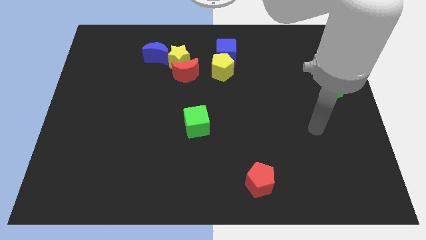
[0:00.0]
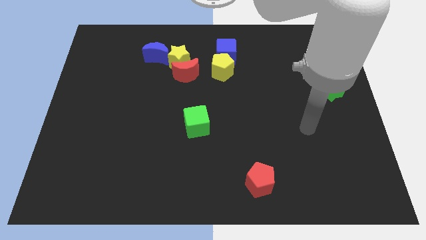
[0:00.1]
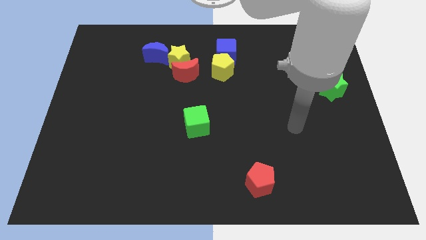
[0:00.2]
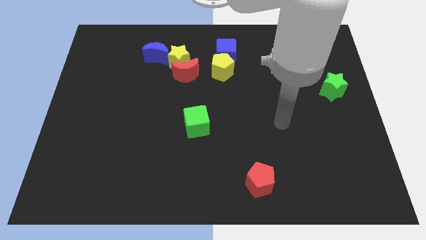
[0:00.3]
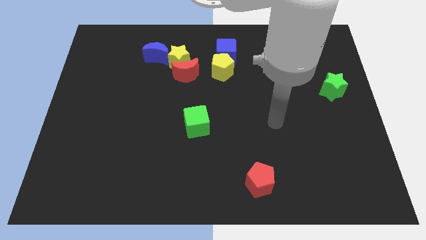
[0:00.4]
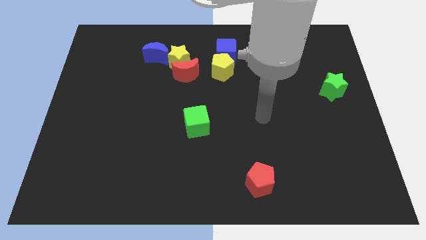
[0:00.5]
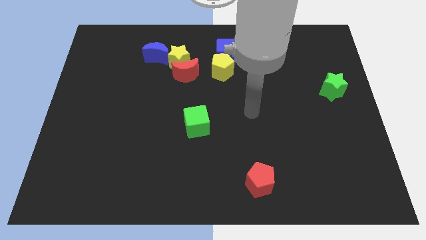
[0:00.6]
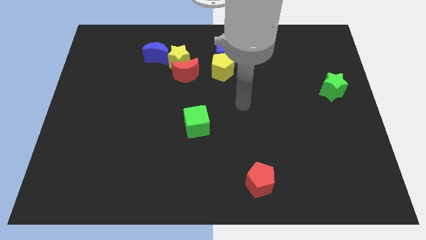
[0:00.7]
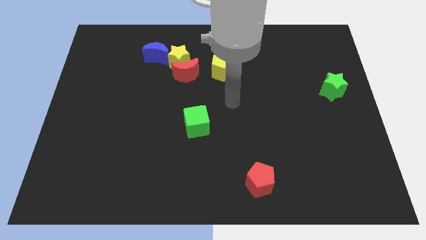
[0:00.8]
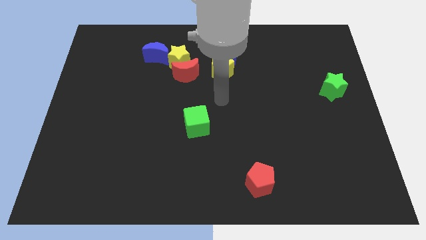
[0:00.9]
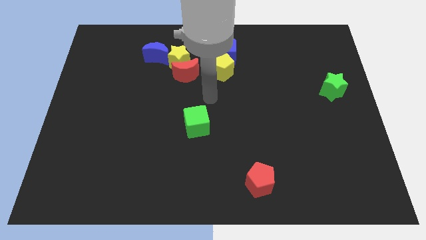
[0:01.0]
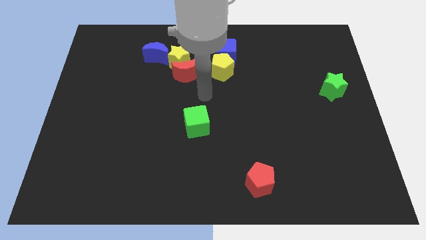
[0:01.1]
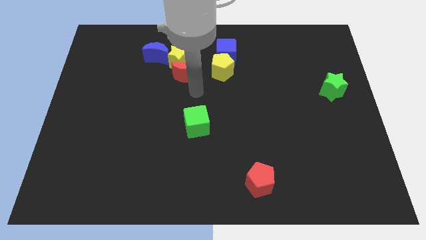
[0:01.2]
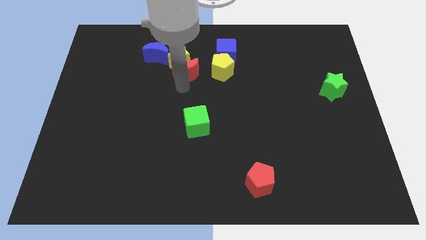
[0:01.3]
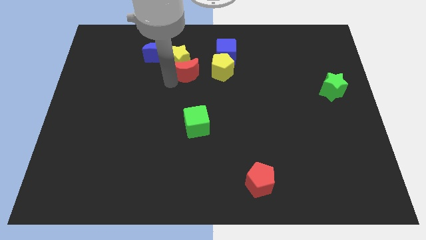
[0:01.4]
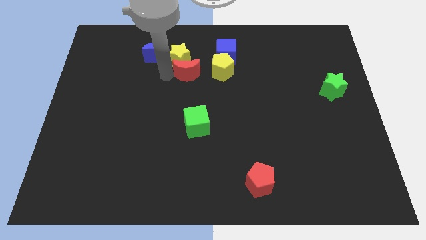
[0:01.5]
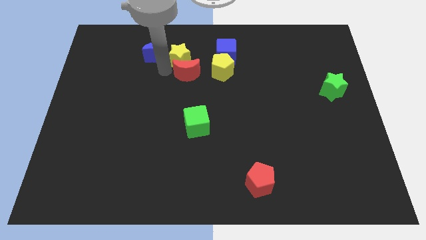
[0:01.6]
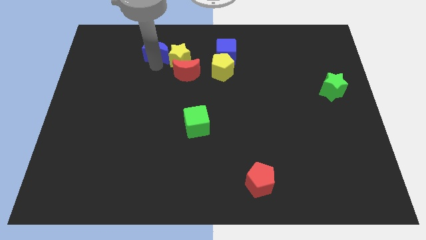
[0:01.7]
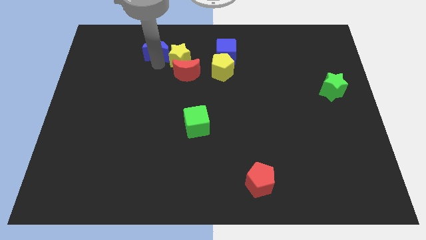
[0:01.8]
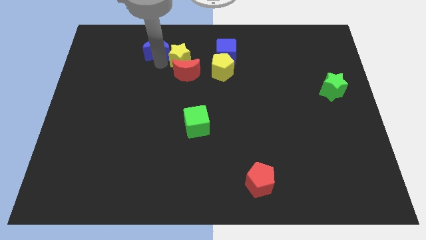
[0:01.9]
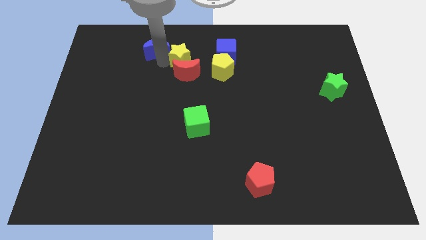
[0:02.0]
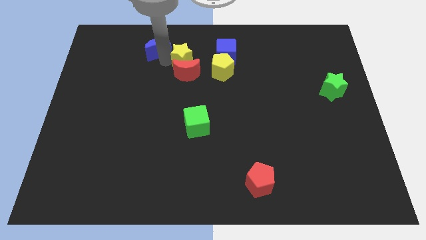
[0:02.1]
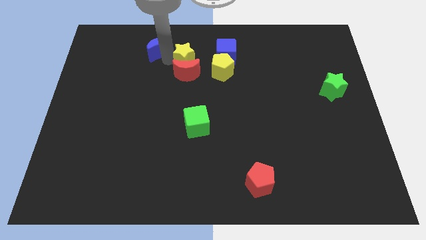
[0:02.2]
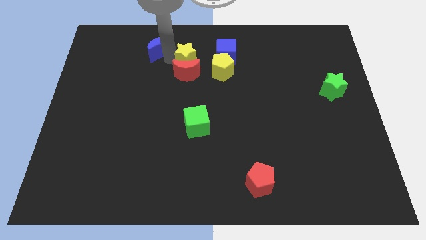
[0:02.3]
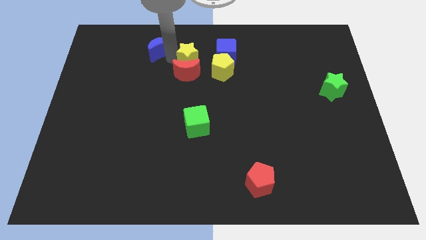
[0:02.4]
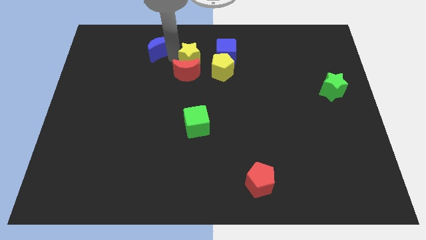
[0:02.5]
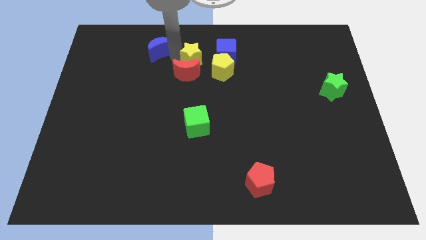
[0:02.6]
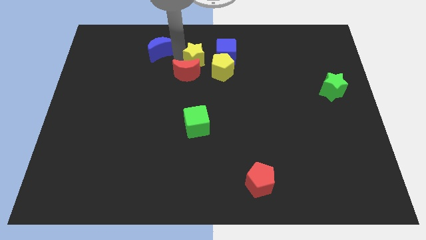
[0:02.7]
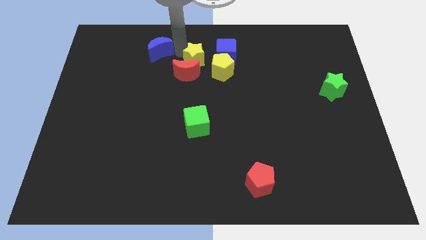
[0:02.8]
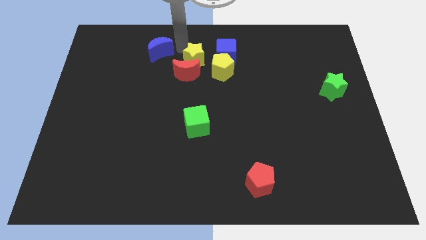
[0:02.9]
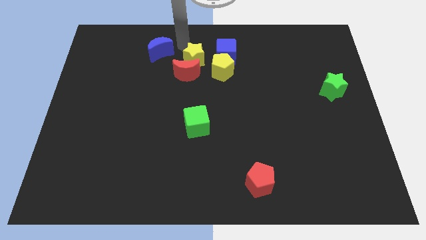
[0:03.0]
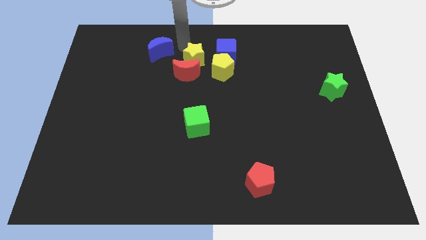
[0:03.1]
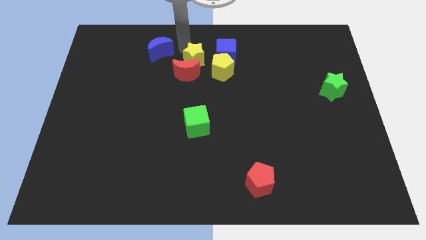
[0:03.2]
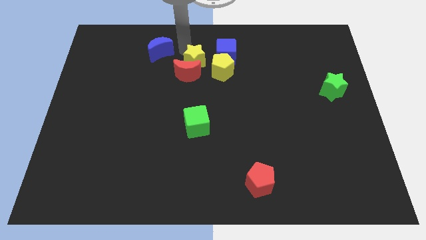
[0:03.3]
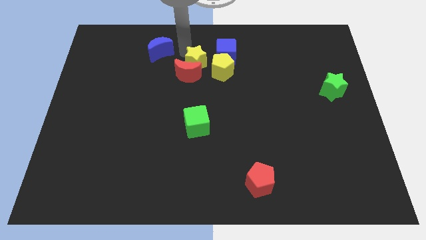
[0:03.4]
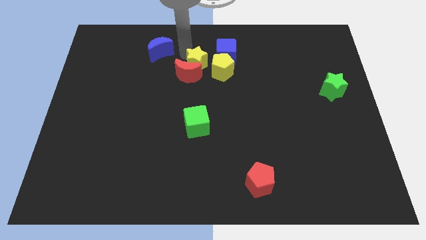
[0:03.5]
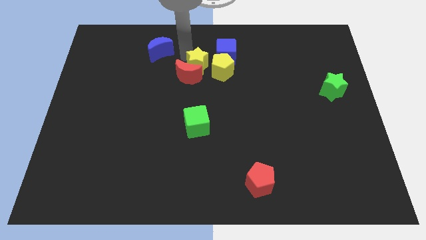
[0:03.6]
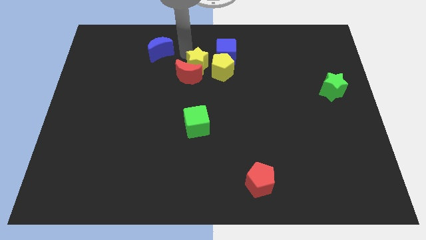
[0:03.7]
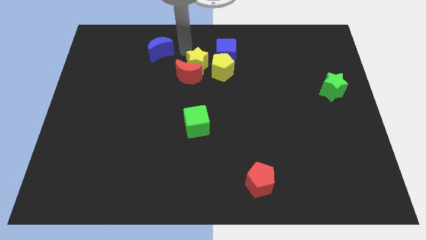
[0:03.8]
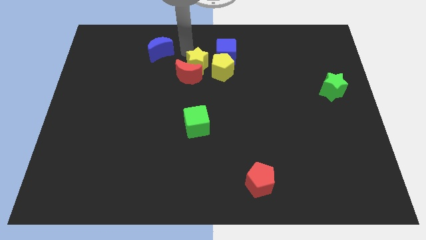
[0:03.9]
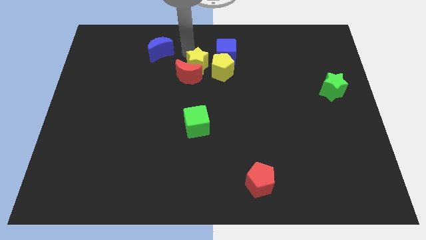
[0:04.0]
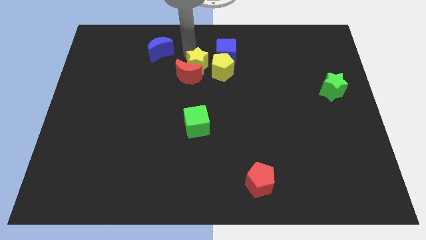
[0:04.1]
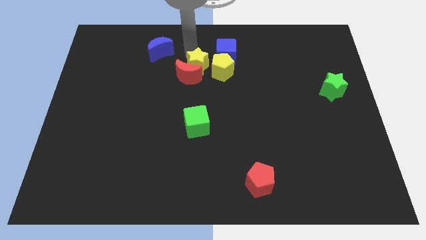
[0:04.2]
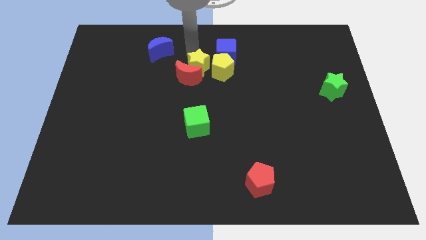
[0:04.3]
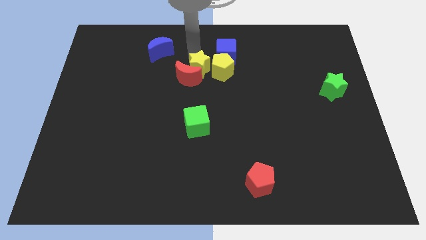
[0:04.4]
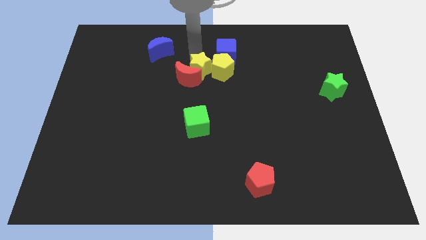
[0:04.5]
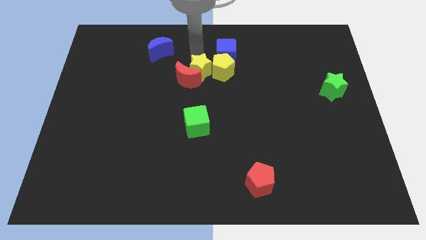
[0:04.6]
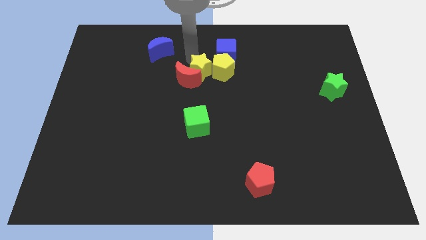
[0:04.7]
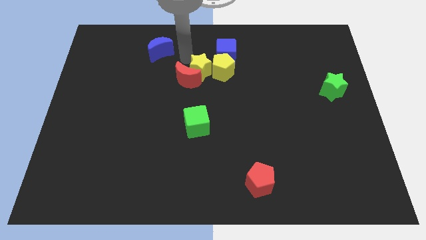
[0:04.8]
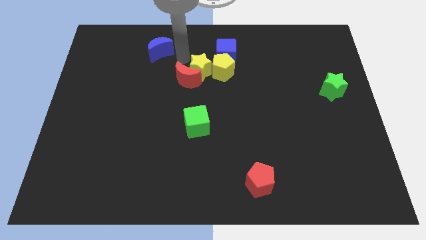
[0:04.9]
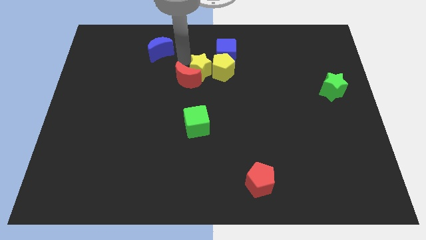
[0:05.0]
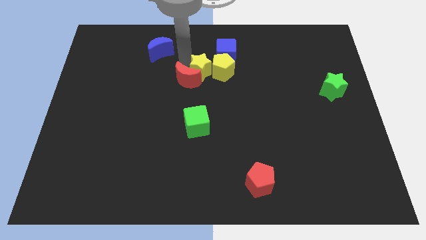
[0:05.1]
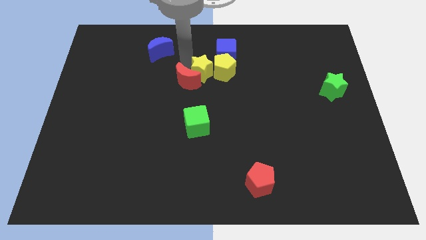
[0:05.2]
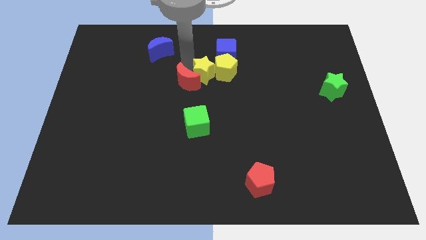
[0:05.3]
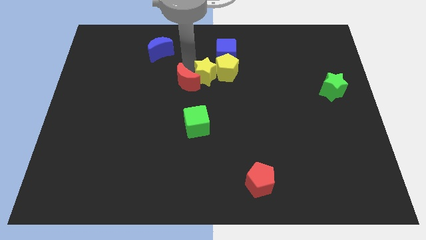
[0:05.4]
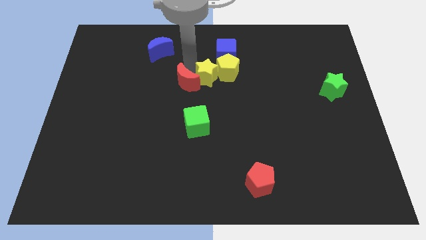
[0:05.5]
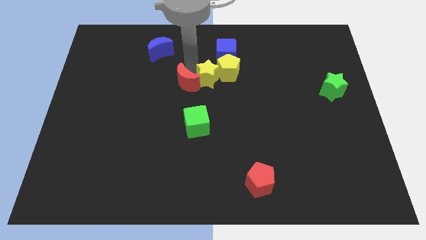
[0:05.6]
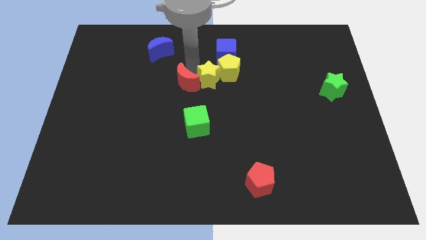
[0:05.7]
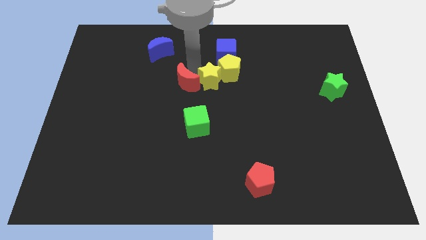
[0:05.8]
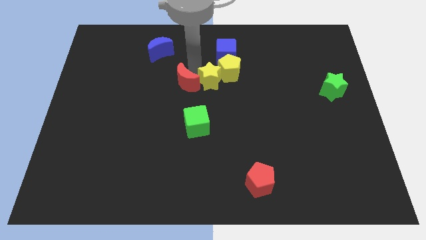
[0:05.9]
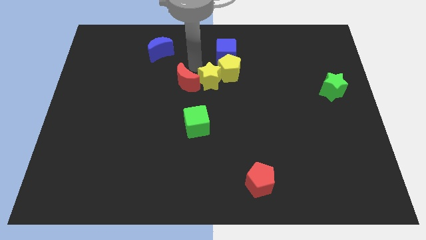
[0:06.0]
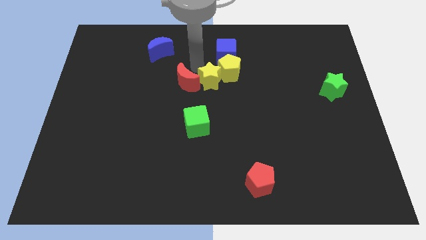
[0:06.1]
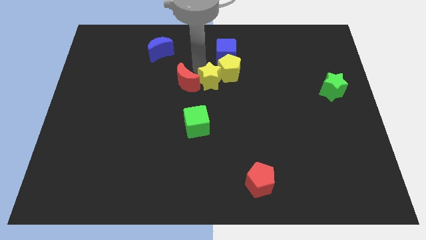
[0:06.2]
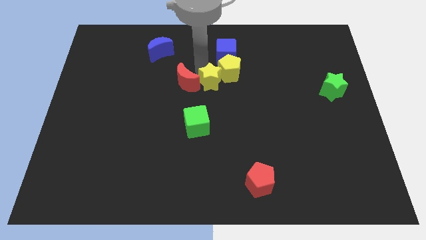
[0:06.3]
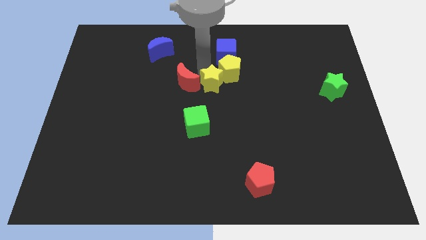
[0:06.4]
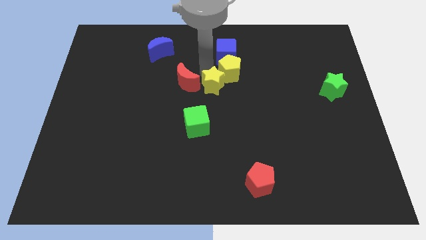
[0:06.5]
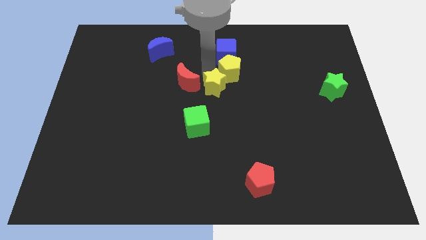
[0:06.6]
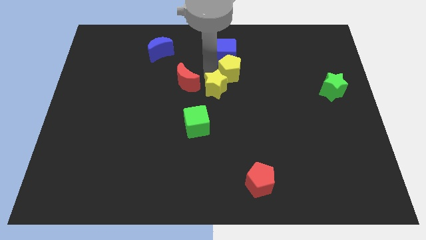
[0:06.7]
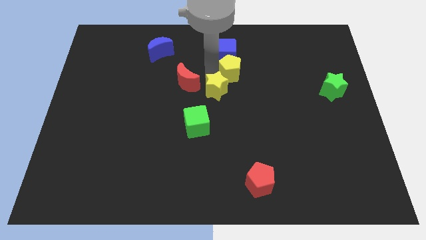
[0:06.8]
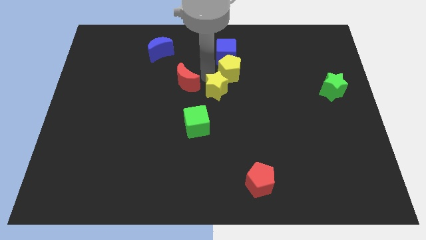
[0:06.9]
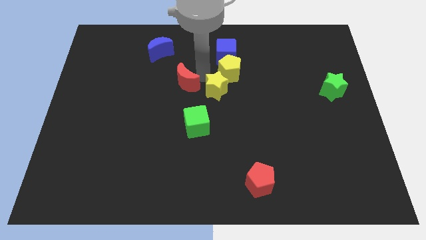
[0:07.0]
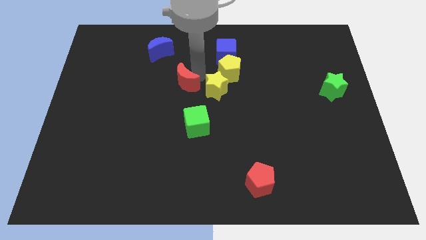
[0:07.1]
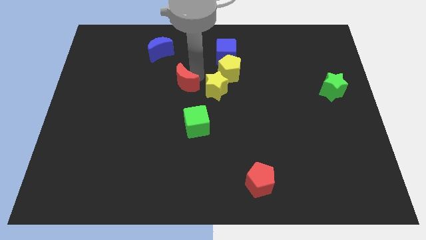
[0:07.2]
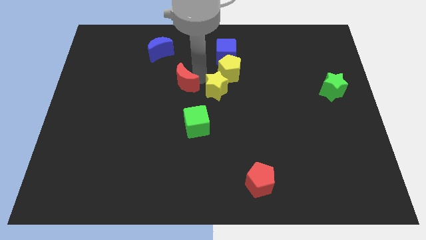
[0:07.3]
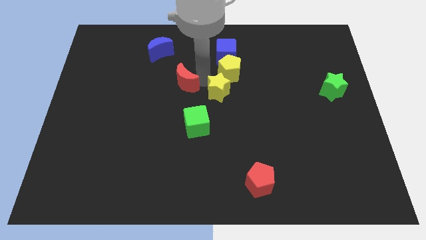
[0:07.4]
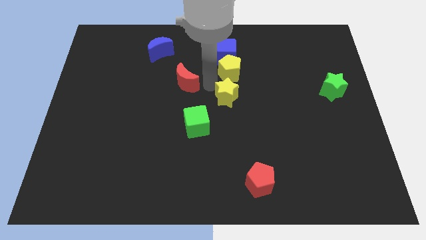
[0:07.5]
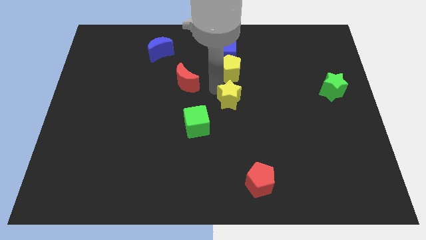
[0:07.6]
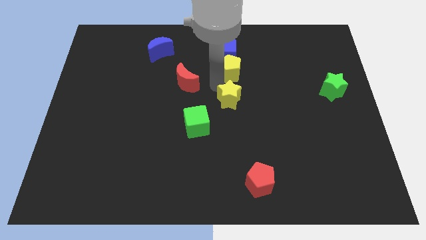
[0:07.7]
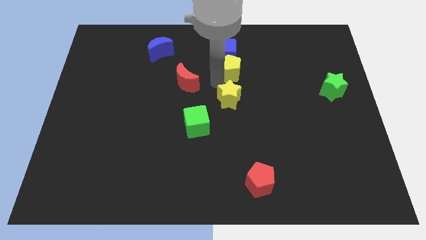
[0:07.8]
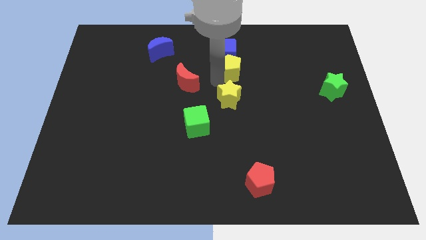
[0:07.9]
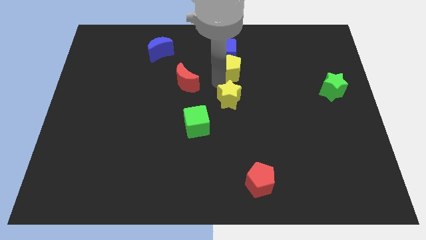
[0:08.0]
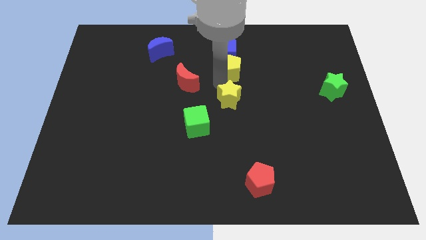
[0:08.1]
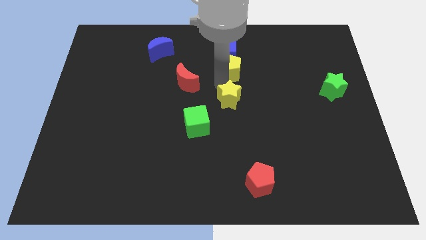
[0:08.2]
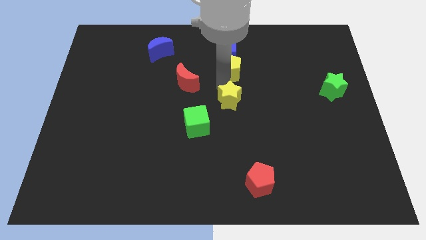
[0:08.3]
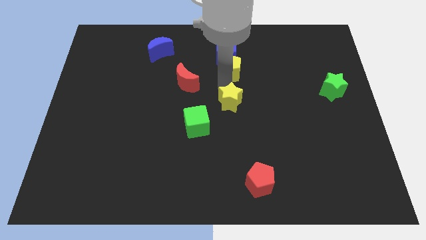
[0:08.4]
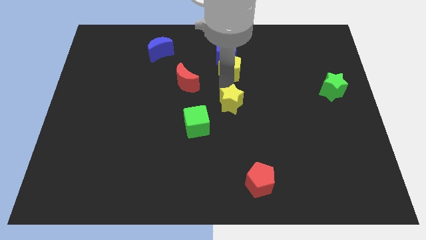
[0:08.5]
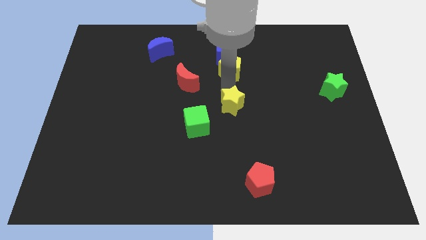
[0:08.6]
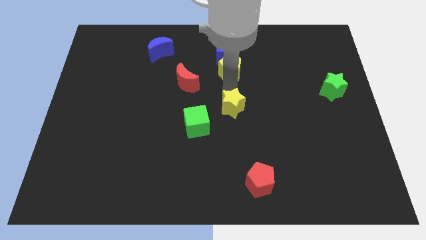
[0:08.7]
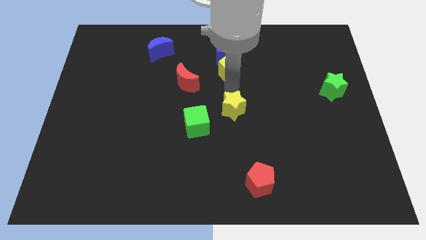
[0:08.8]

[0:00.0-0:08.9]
put the yellow star right of the green cube
